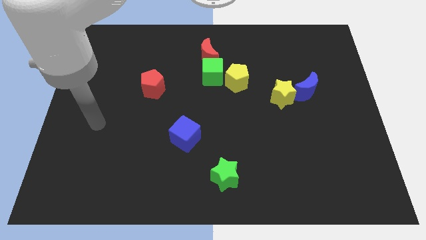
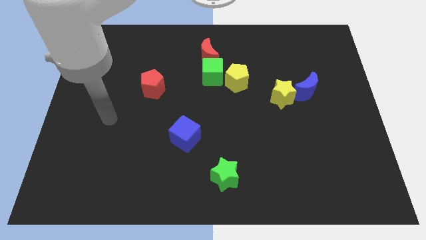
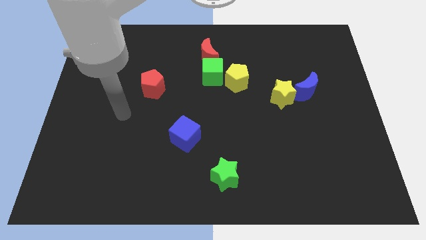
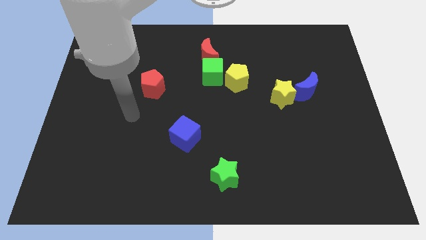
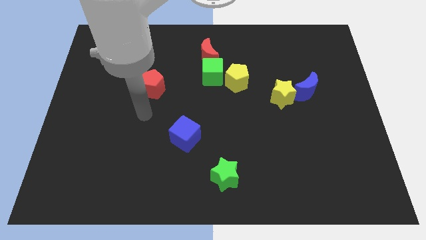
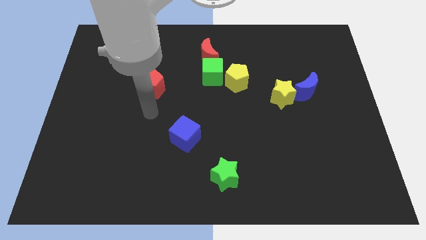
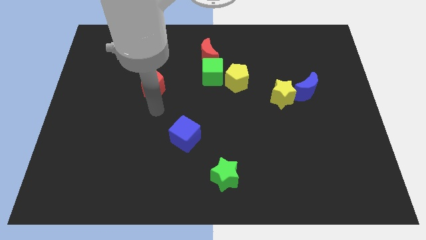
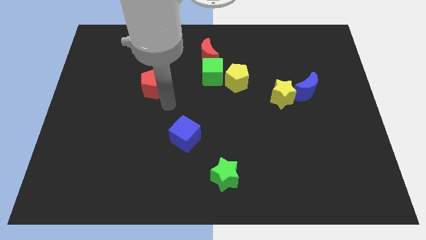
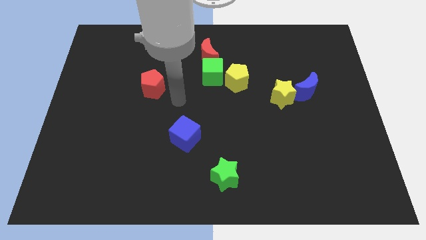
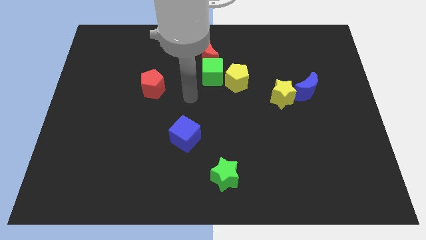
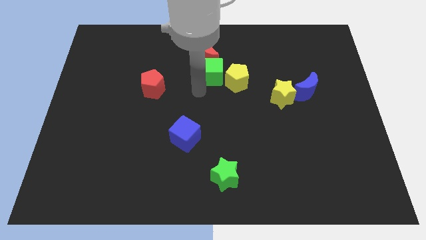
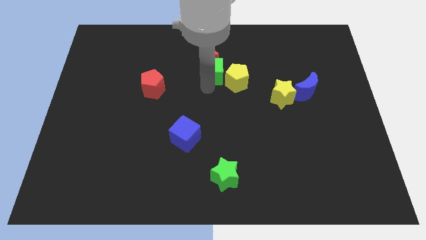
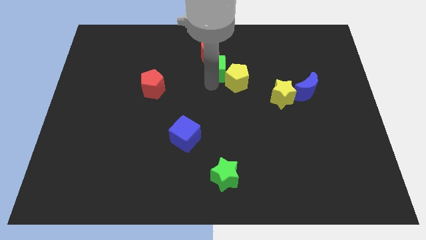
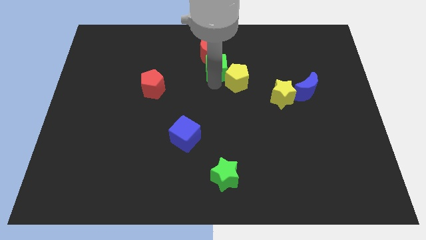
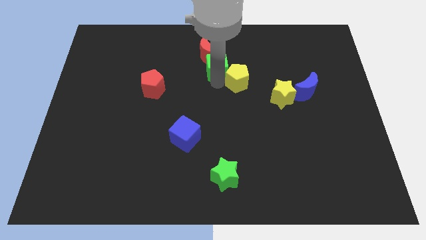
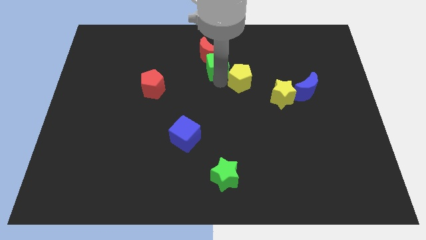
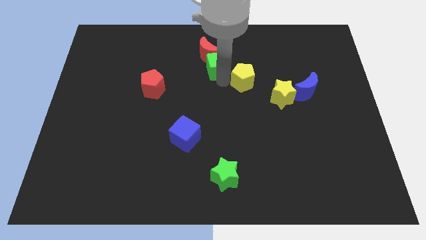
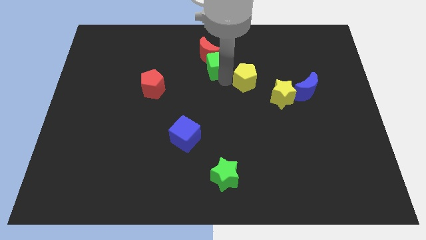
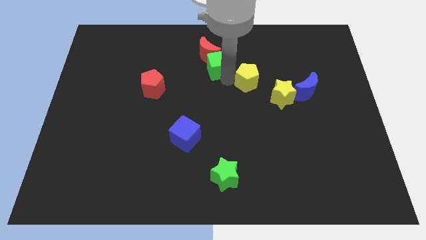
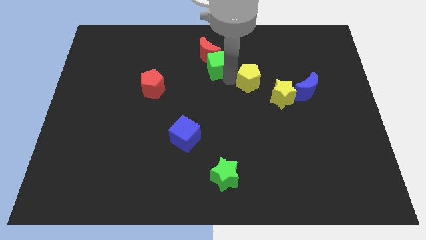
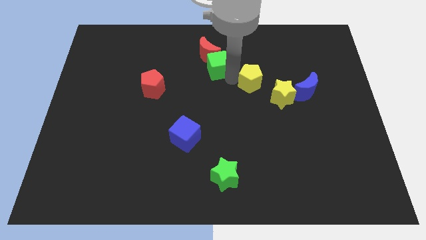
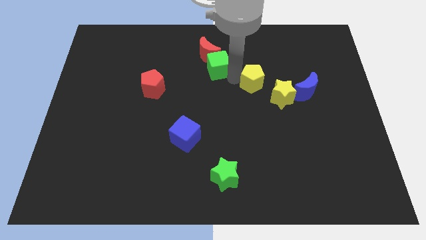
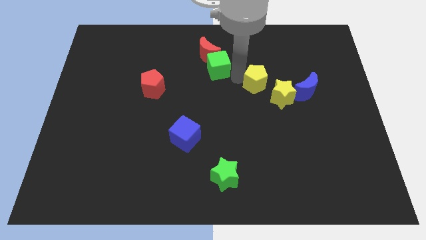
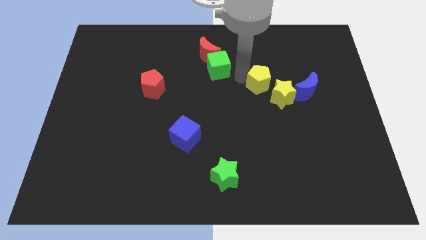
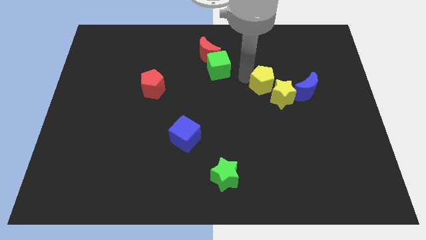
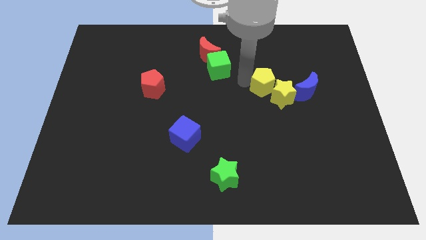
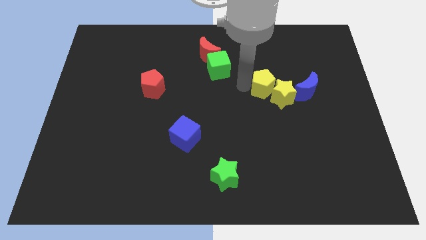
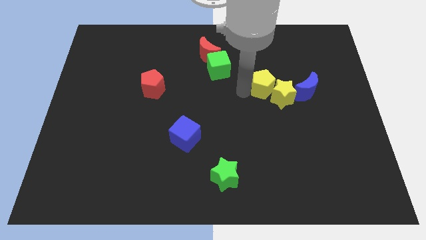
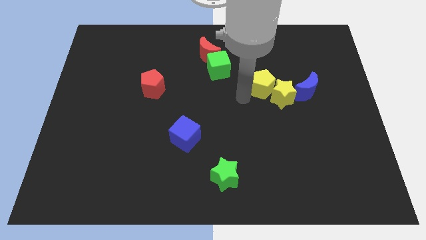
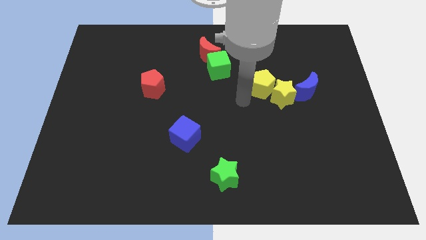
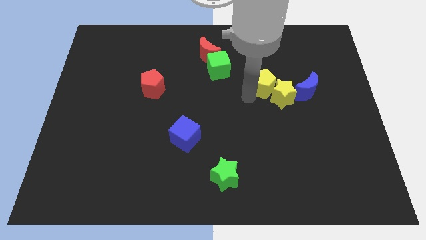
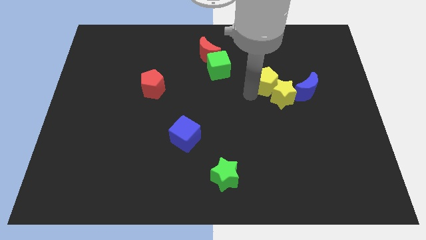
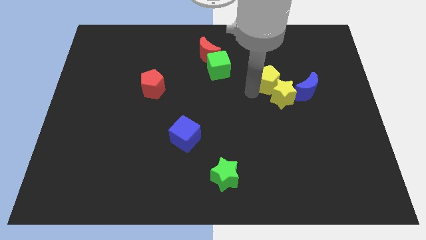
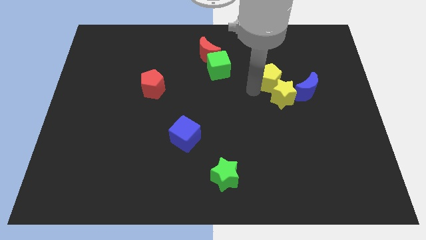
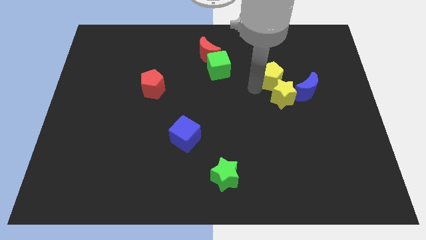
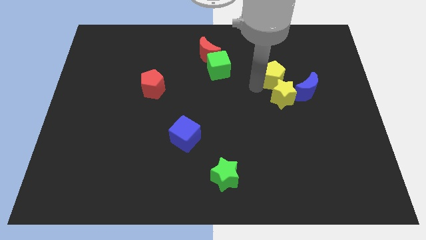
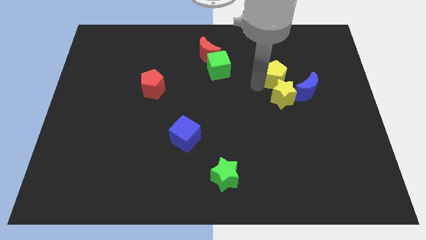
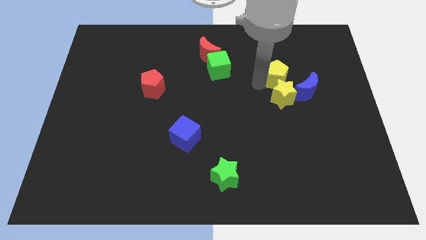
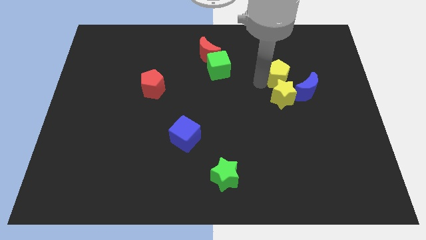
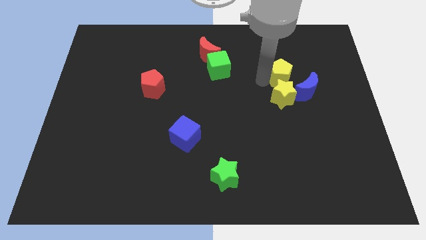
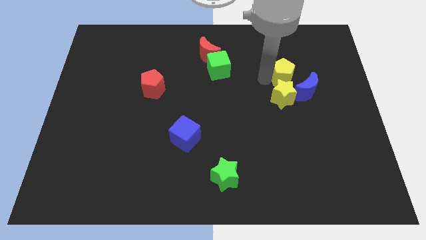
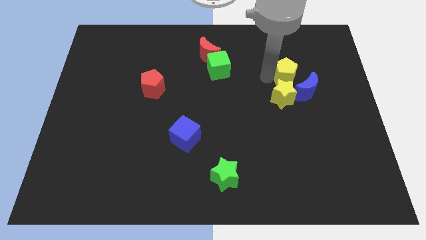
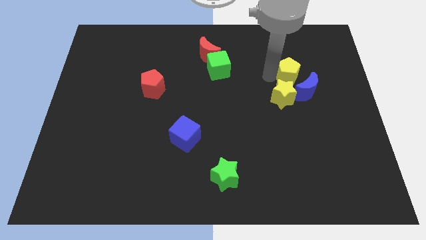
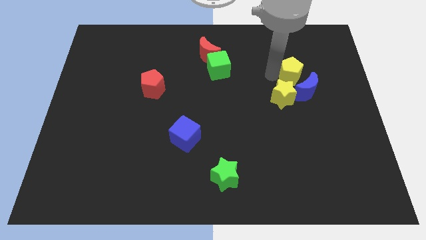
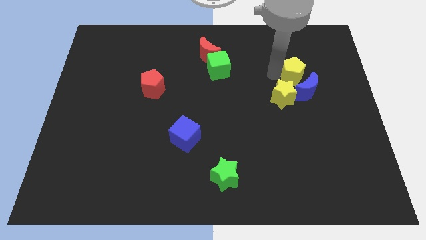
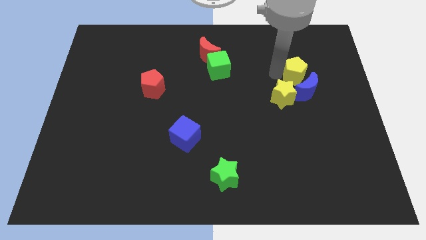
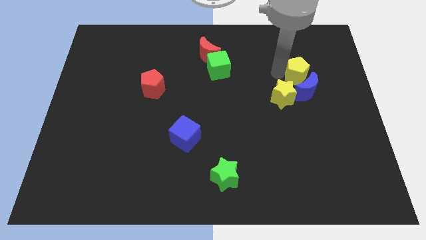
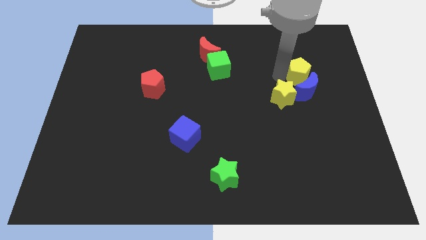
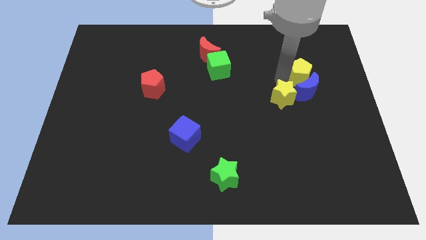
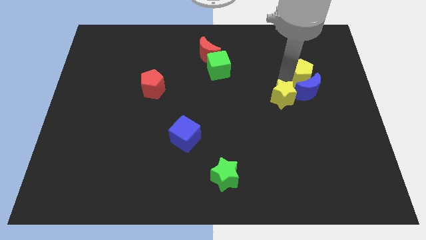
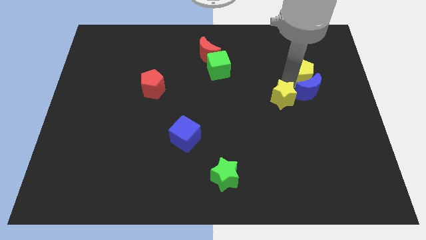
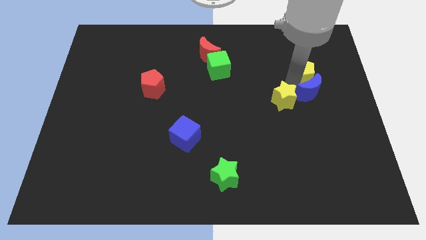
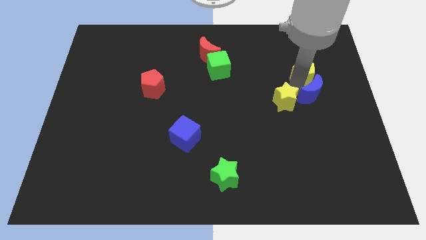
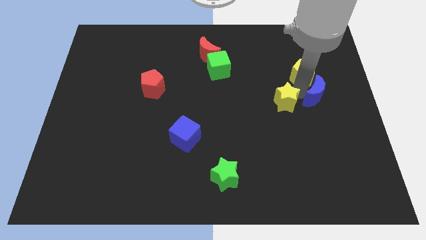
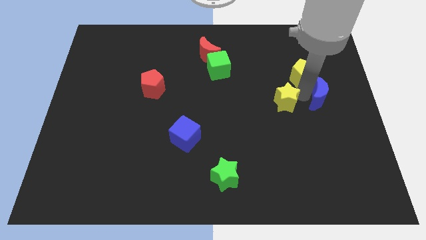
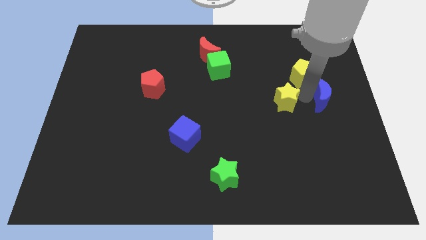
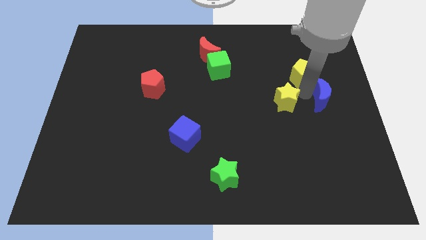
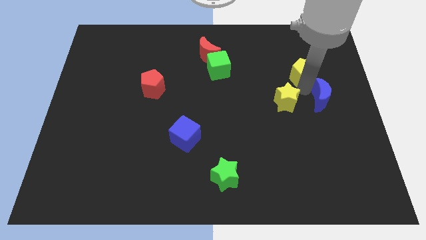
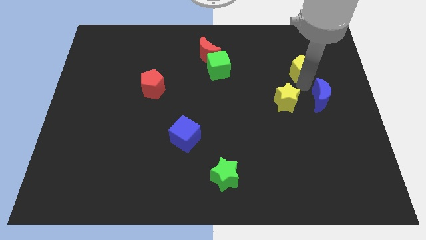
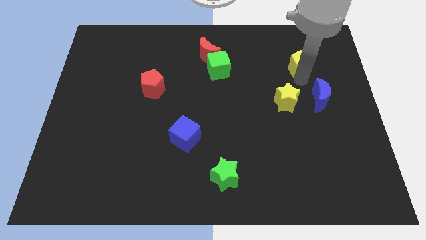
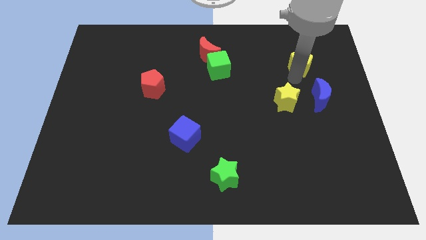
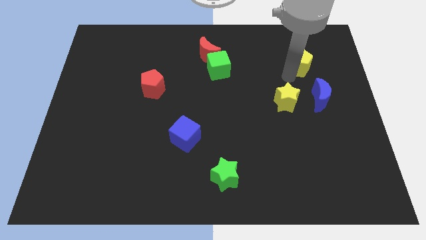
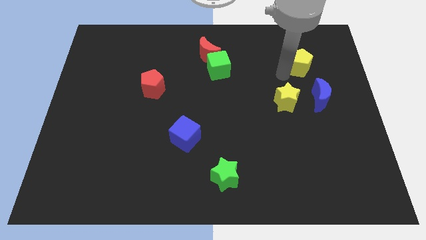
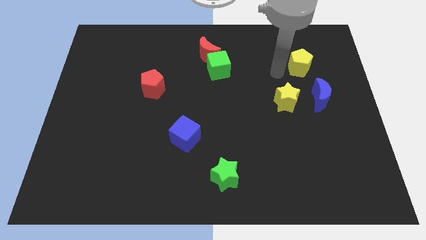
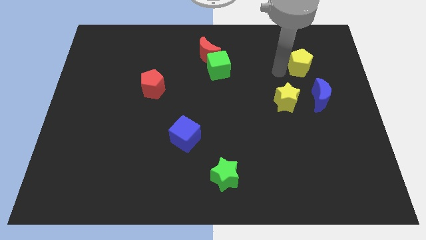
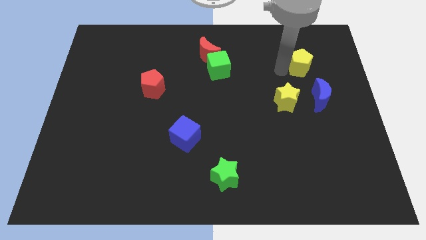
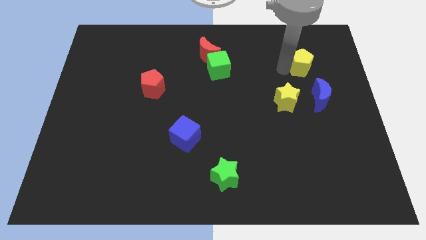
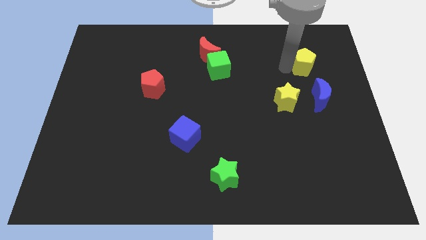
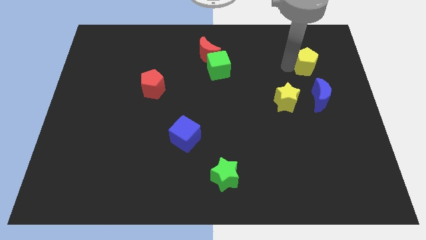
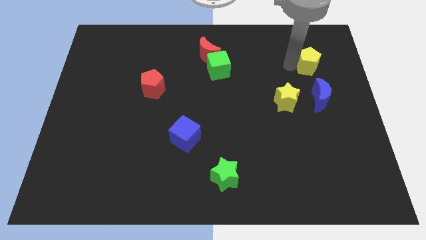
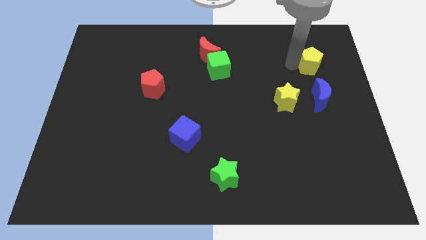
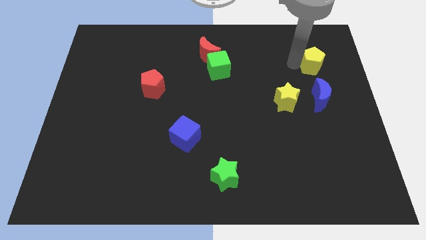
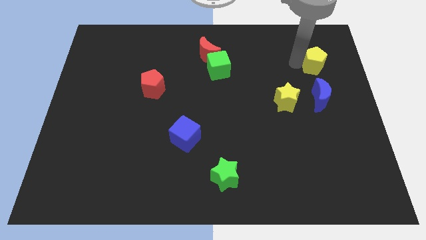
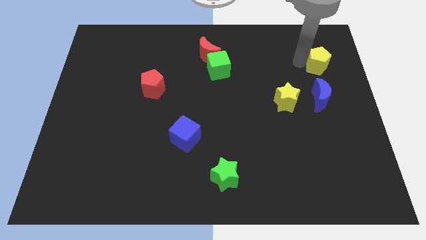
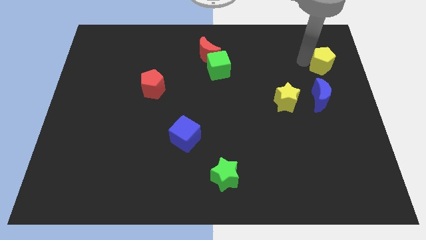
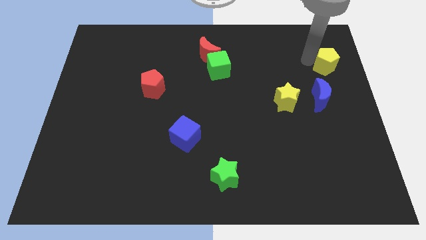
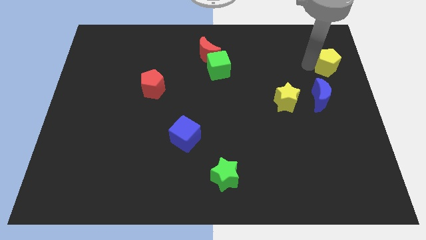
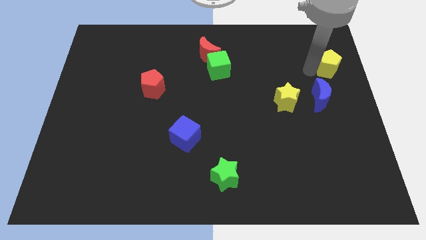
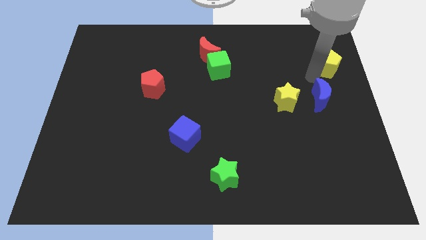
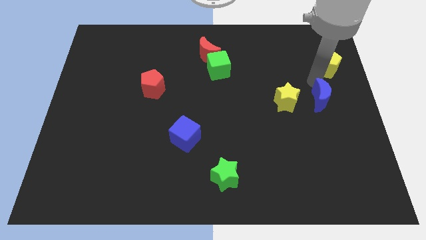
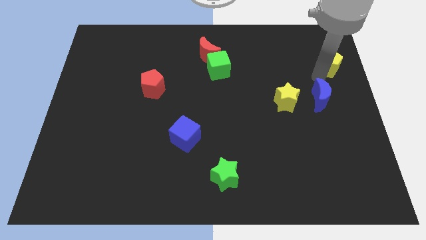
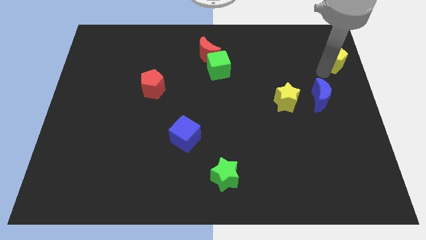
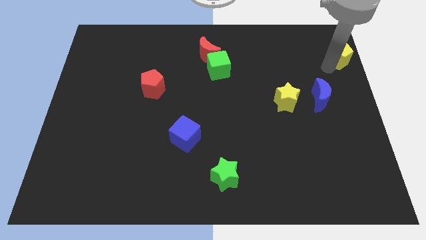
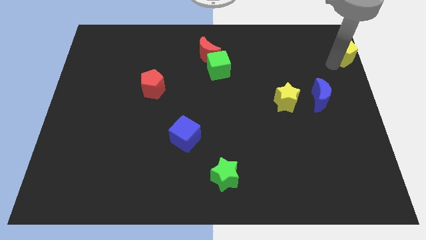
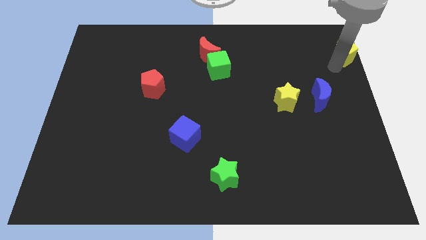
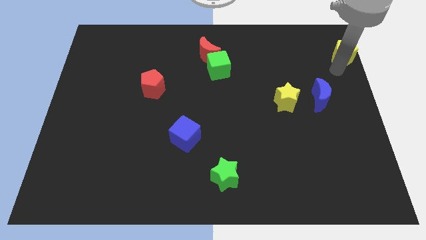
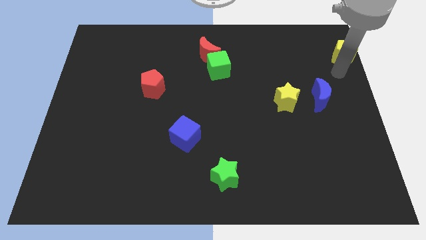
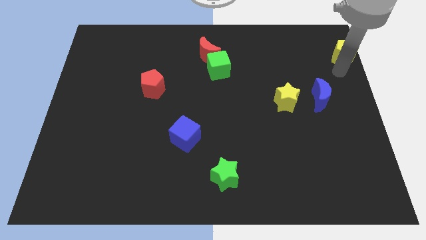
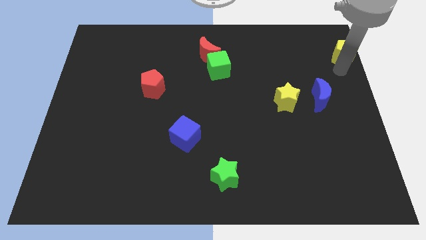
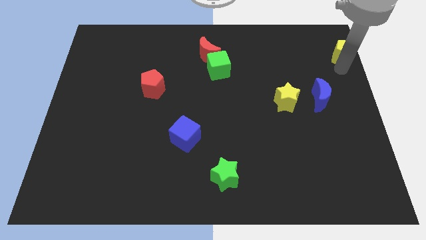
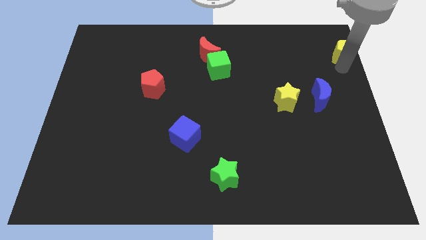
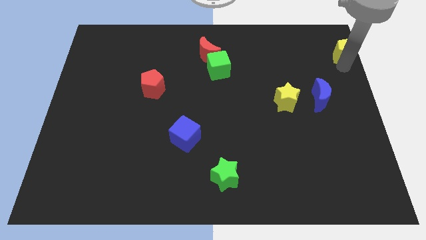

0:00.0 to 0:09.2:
move the yellow pentagon to the top right corner
